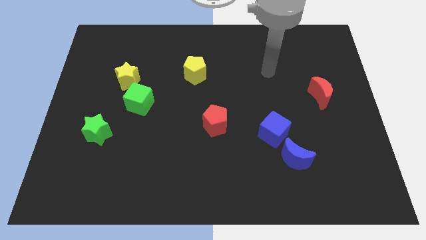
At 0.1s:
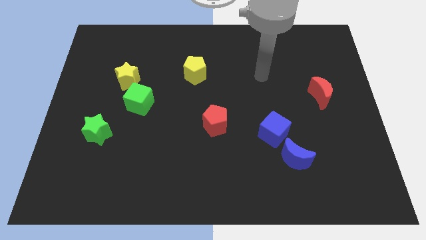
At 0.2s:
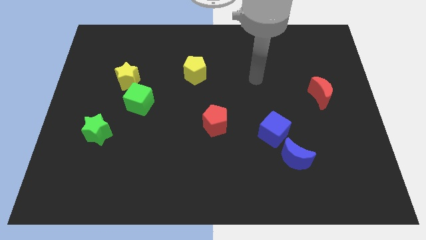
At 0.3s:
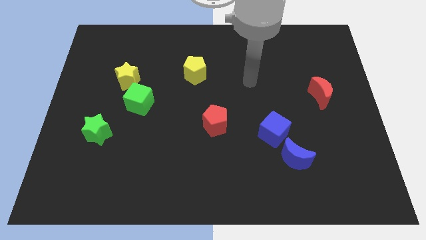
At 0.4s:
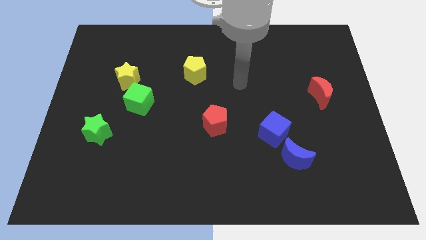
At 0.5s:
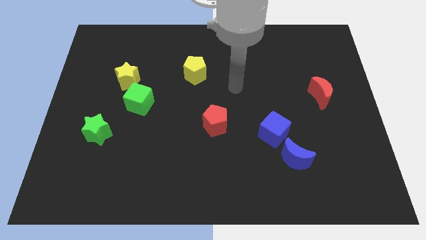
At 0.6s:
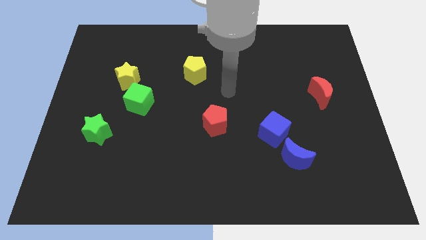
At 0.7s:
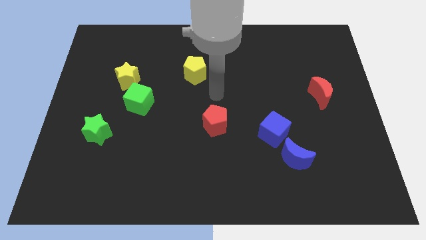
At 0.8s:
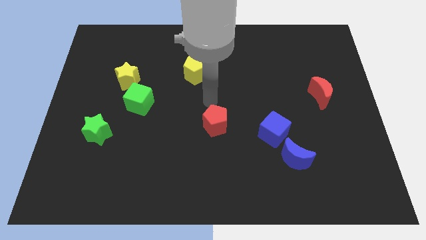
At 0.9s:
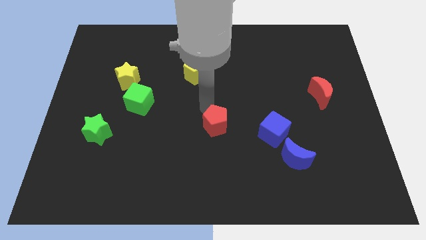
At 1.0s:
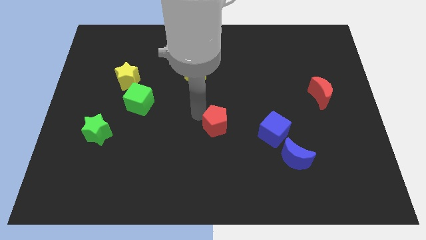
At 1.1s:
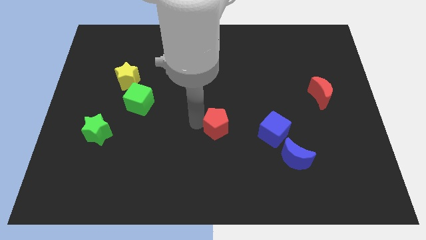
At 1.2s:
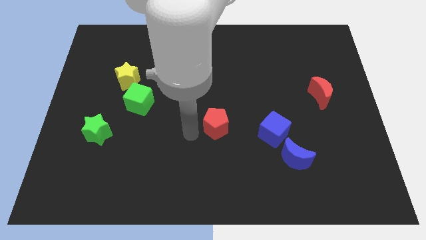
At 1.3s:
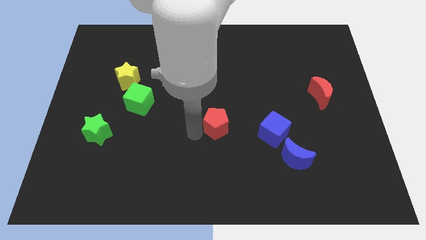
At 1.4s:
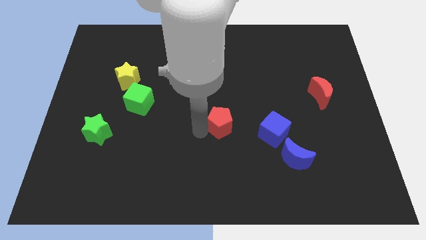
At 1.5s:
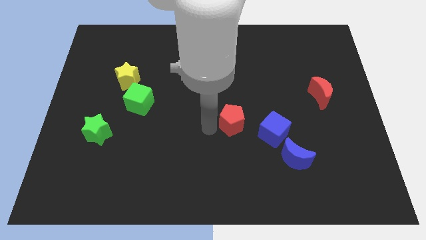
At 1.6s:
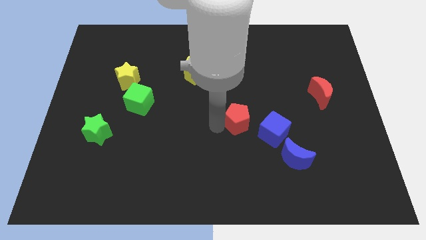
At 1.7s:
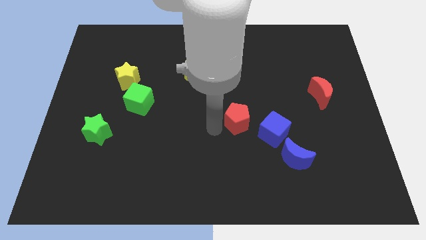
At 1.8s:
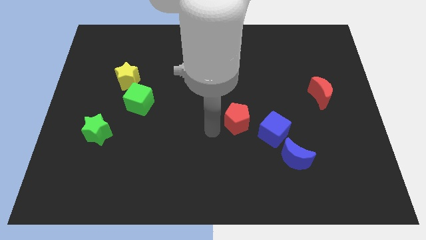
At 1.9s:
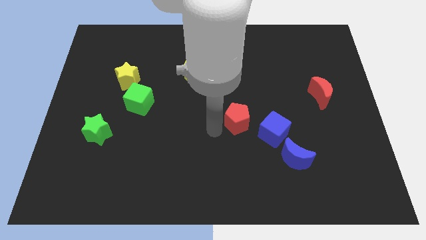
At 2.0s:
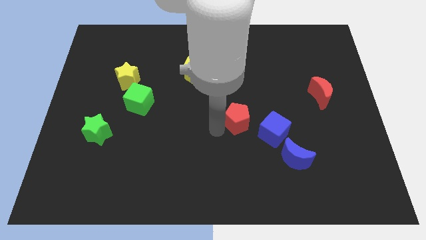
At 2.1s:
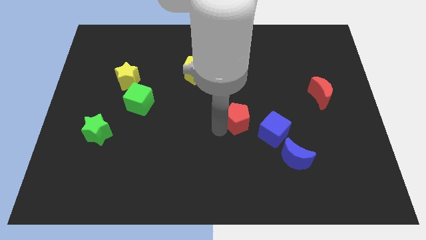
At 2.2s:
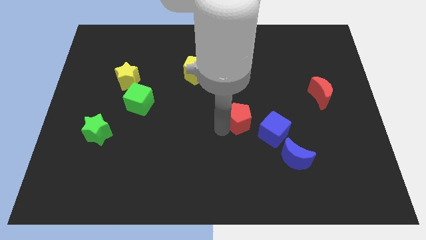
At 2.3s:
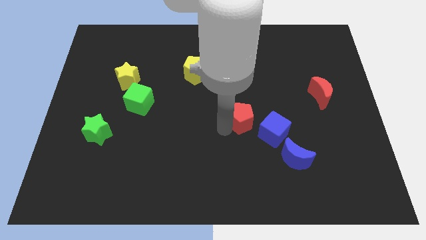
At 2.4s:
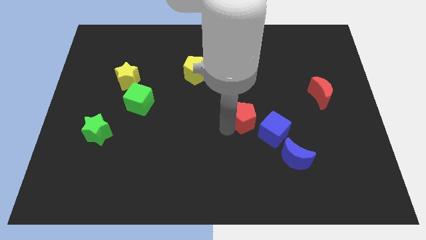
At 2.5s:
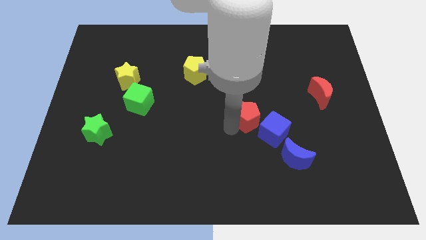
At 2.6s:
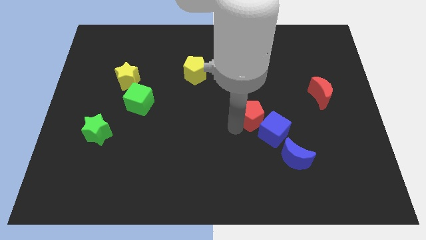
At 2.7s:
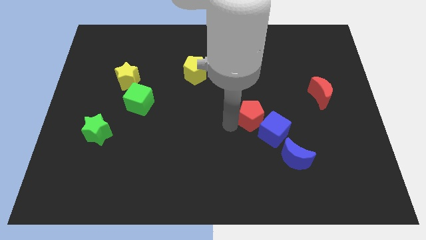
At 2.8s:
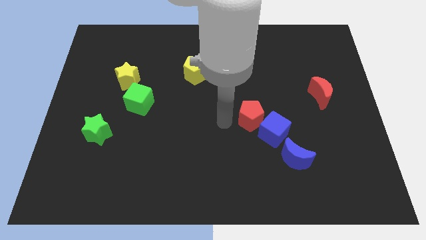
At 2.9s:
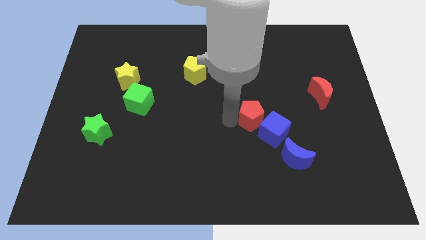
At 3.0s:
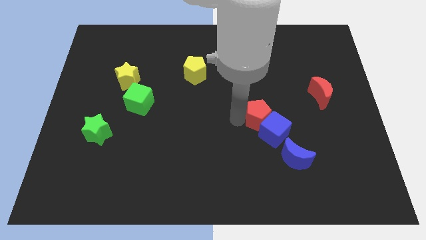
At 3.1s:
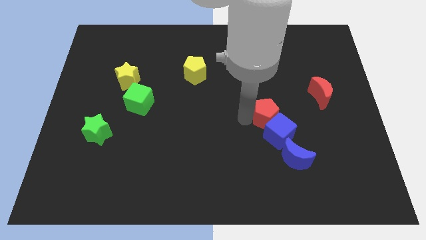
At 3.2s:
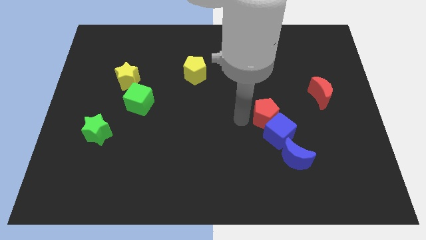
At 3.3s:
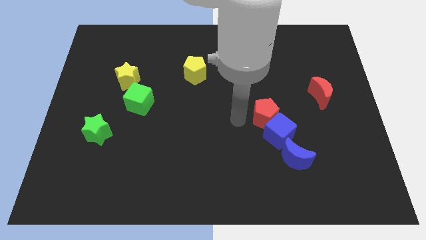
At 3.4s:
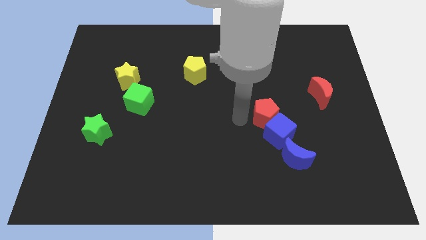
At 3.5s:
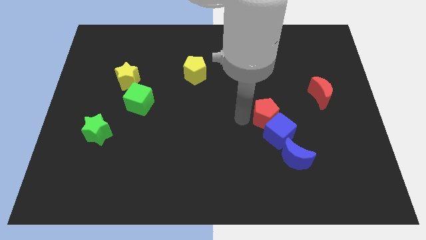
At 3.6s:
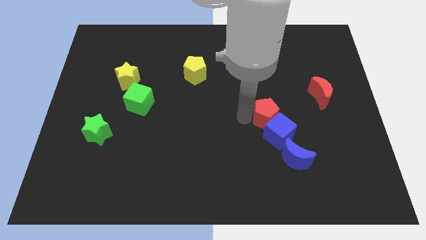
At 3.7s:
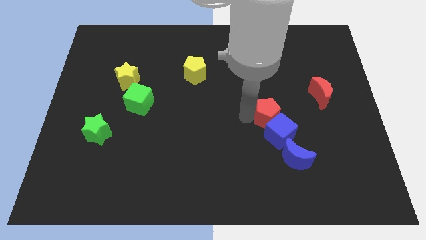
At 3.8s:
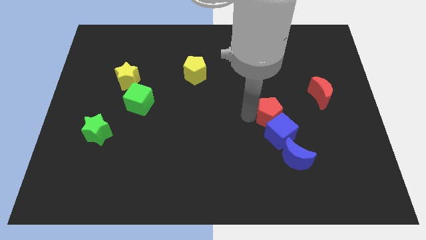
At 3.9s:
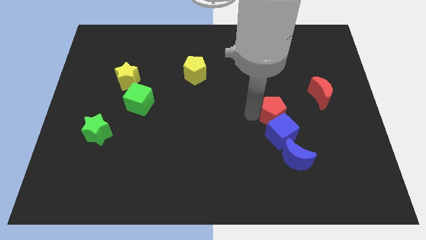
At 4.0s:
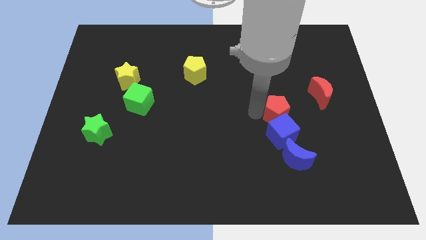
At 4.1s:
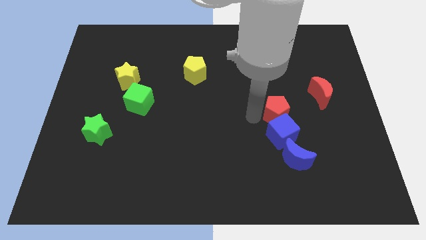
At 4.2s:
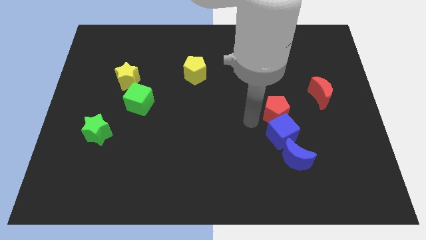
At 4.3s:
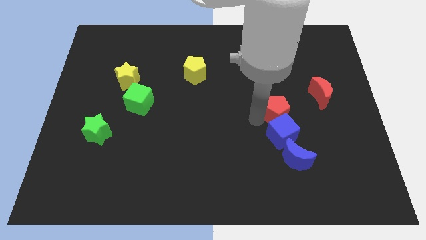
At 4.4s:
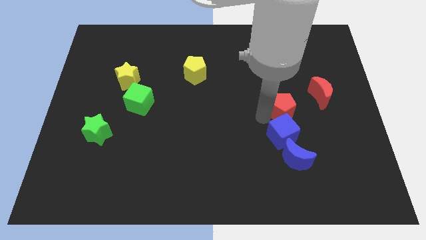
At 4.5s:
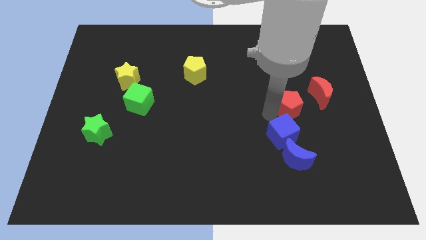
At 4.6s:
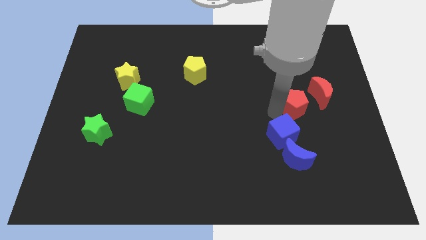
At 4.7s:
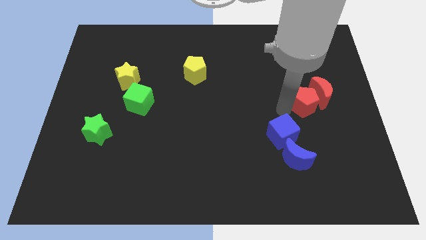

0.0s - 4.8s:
move the red pentagon to the red moon

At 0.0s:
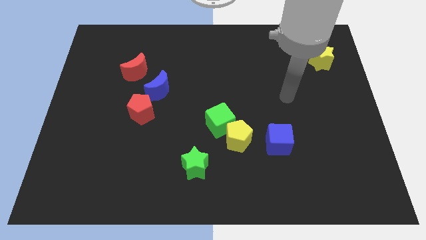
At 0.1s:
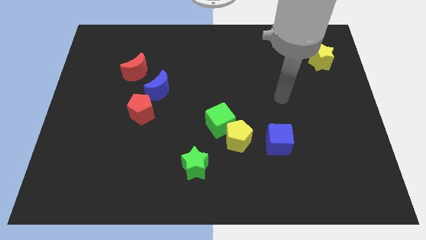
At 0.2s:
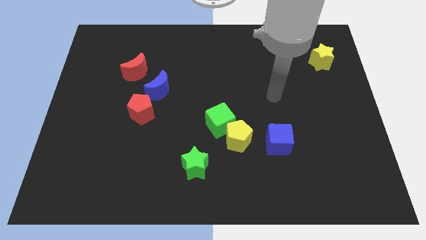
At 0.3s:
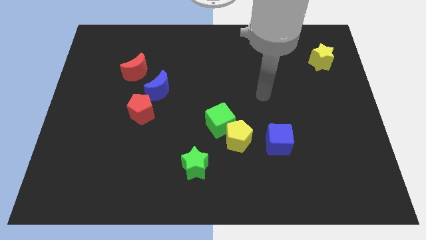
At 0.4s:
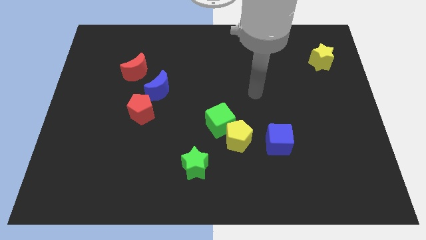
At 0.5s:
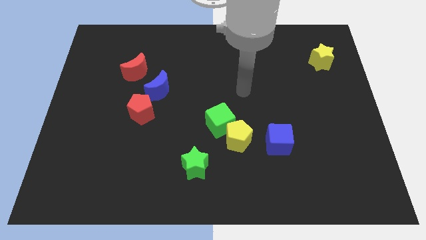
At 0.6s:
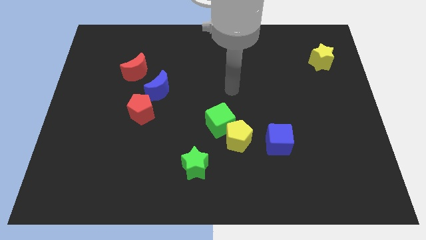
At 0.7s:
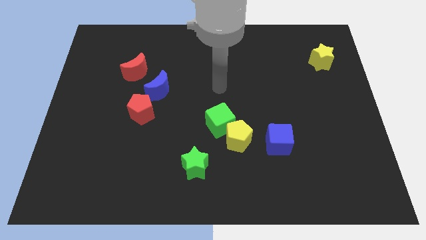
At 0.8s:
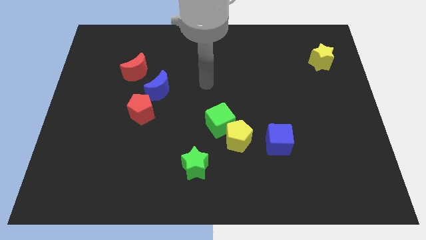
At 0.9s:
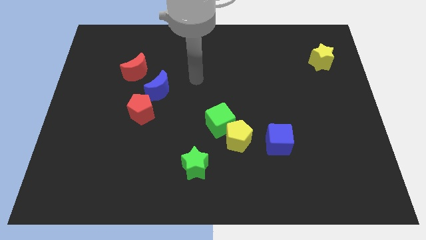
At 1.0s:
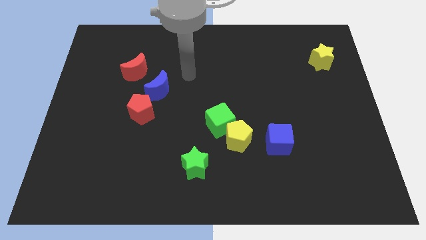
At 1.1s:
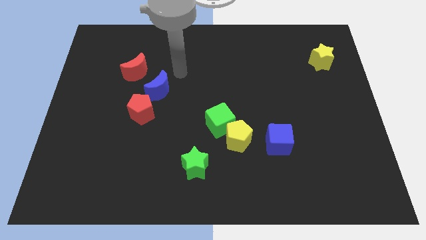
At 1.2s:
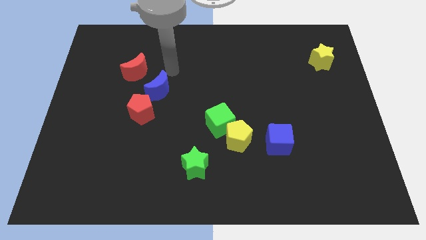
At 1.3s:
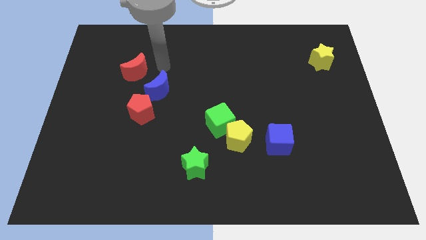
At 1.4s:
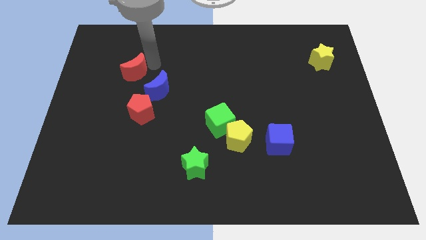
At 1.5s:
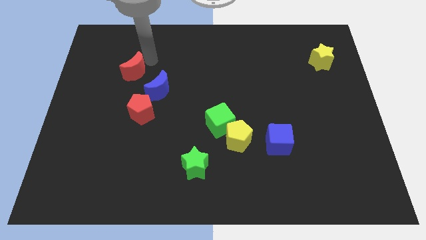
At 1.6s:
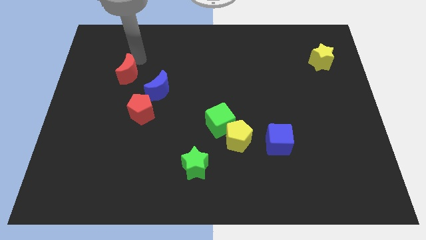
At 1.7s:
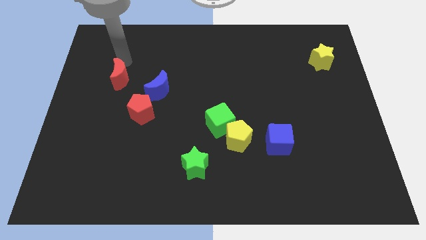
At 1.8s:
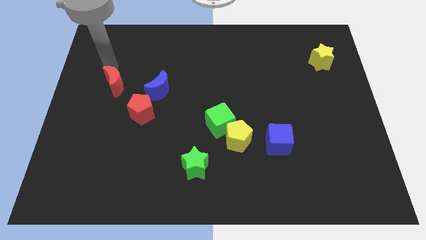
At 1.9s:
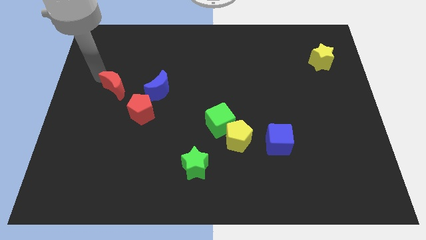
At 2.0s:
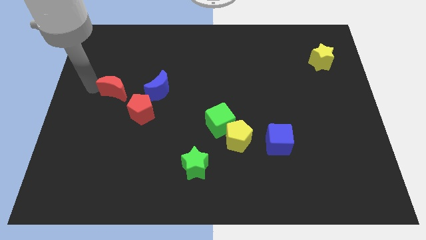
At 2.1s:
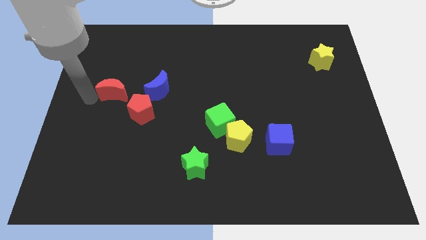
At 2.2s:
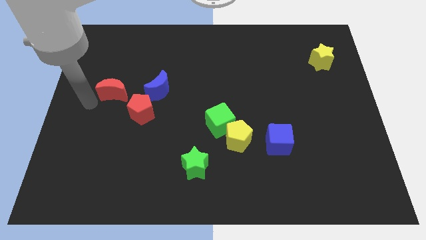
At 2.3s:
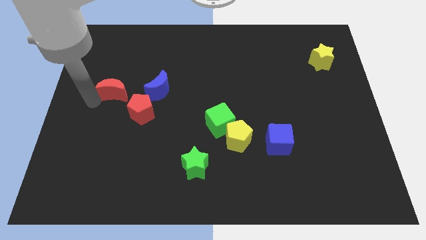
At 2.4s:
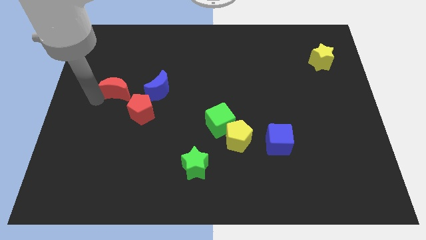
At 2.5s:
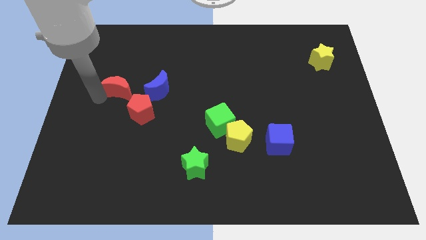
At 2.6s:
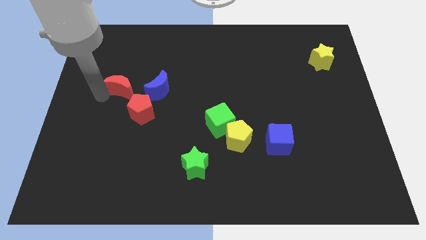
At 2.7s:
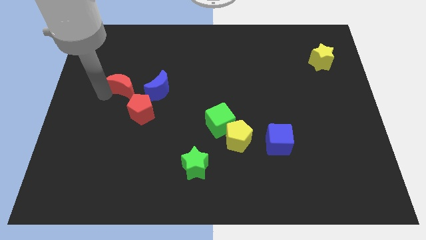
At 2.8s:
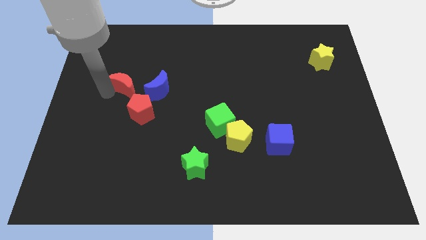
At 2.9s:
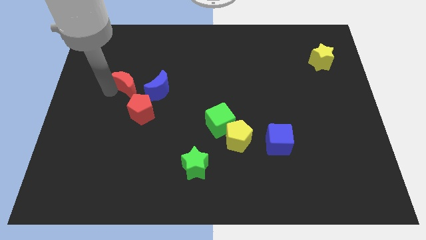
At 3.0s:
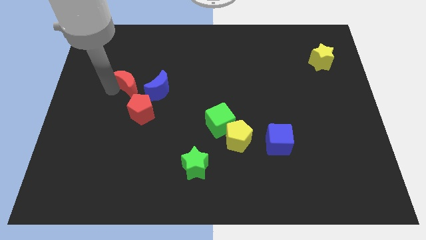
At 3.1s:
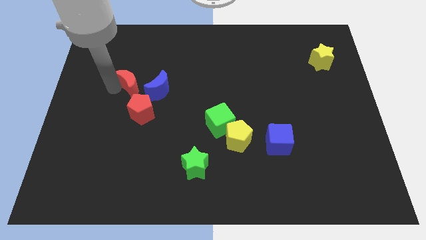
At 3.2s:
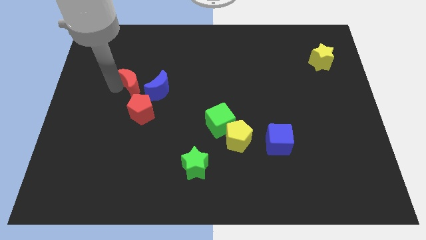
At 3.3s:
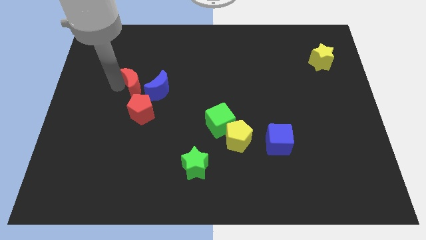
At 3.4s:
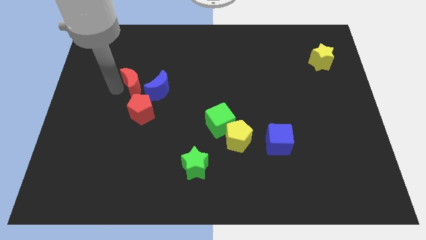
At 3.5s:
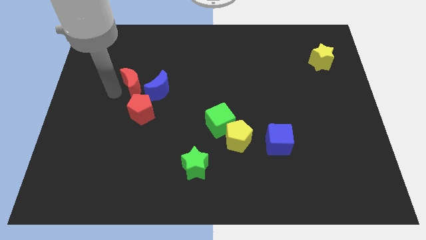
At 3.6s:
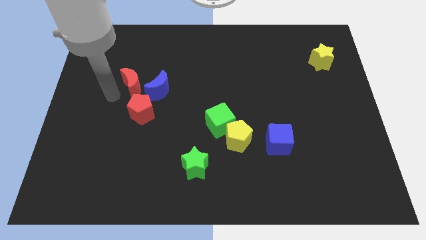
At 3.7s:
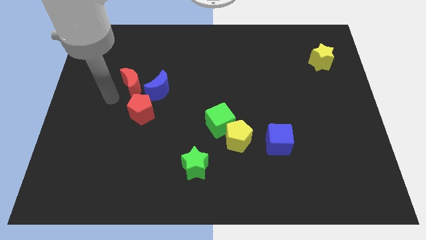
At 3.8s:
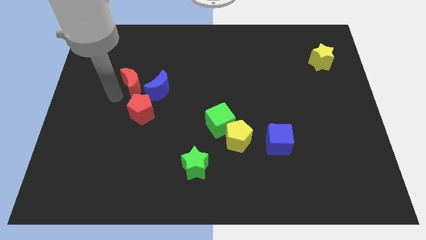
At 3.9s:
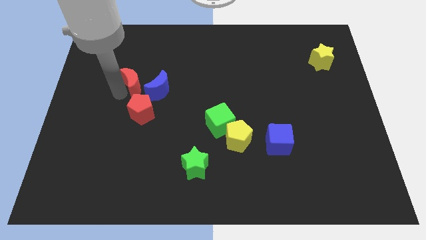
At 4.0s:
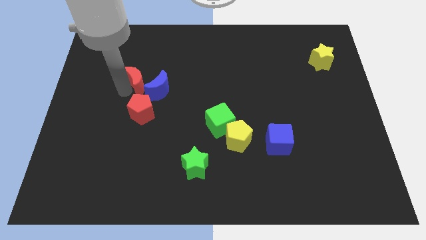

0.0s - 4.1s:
move the red moon to the blue moon
